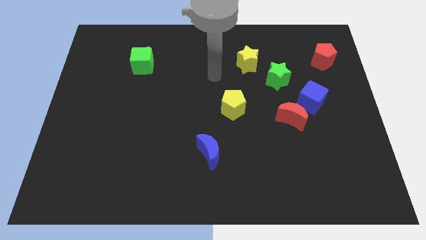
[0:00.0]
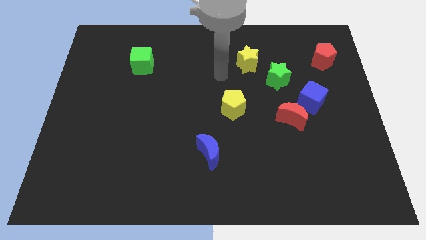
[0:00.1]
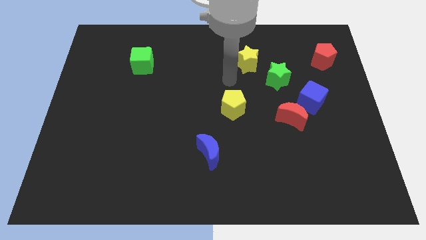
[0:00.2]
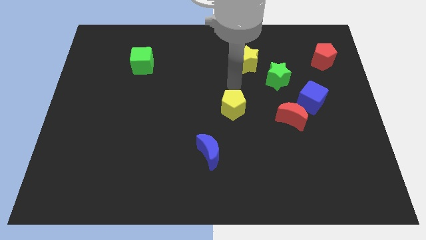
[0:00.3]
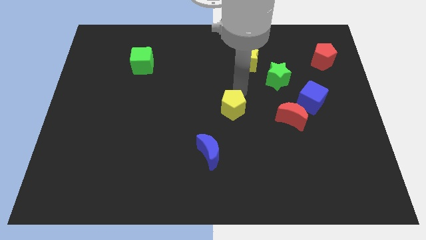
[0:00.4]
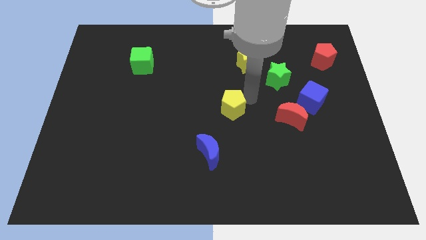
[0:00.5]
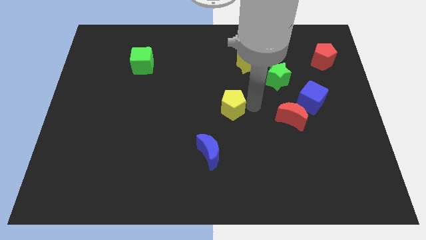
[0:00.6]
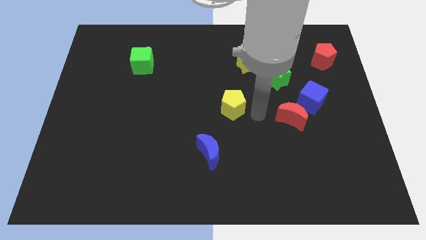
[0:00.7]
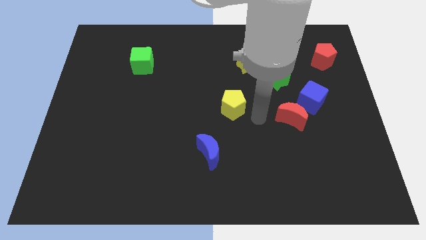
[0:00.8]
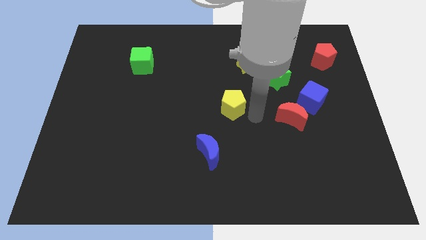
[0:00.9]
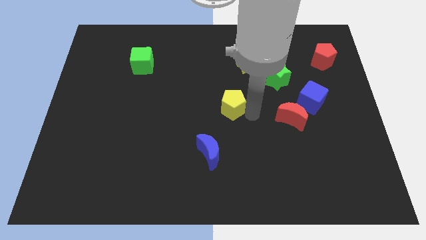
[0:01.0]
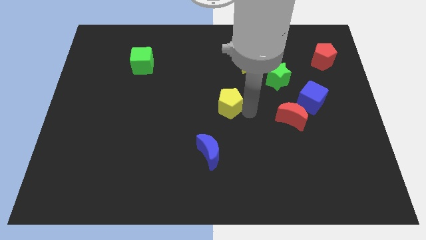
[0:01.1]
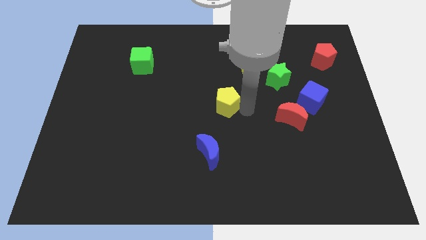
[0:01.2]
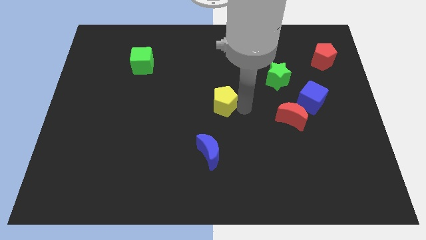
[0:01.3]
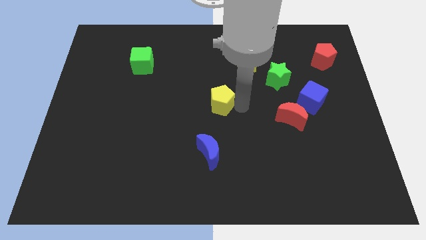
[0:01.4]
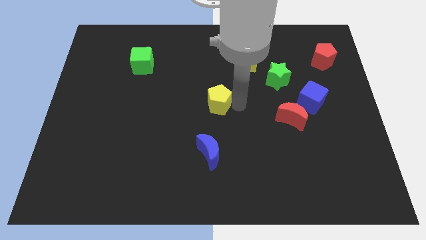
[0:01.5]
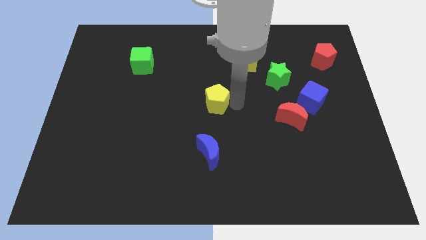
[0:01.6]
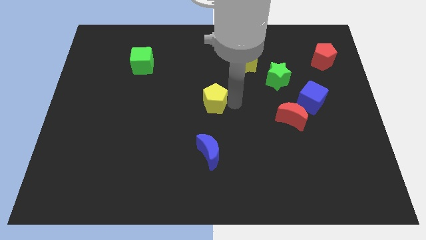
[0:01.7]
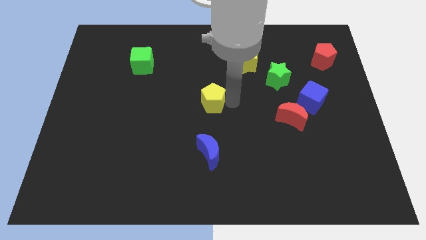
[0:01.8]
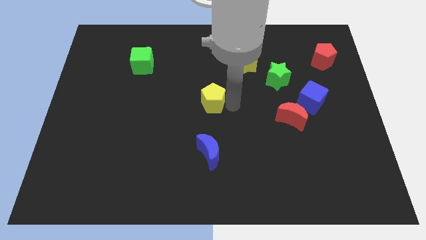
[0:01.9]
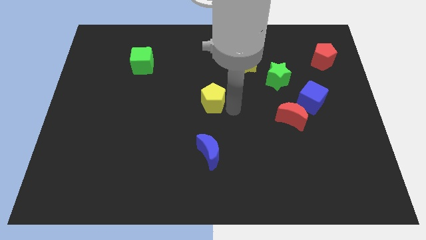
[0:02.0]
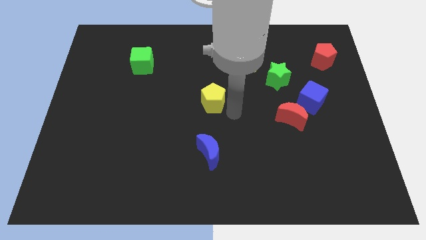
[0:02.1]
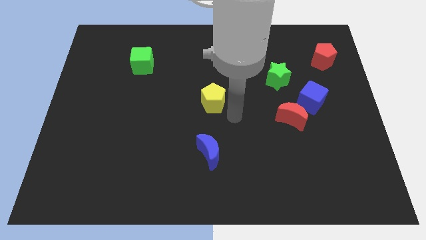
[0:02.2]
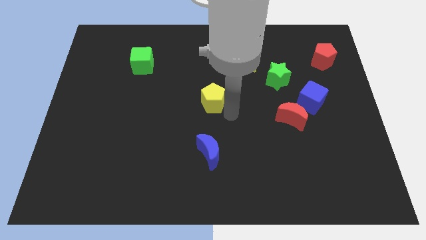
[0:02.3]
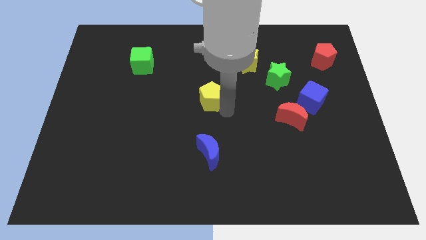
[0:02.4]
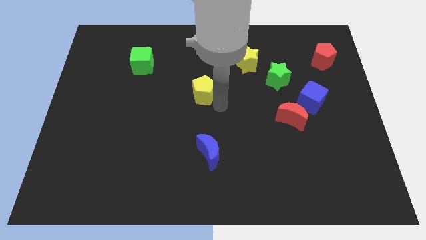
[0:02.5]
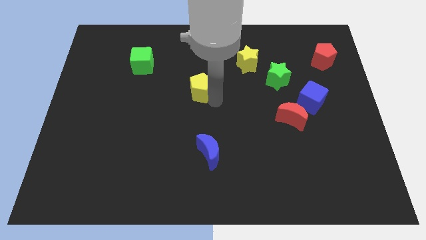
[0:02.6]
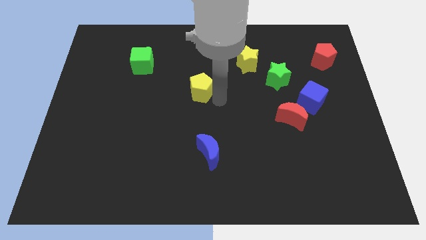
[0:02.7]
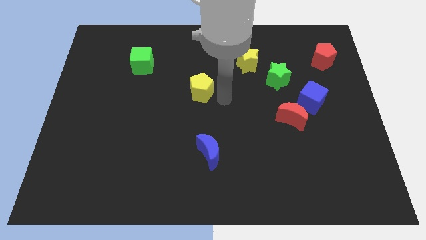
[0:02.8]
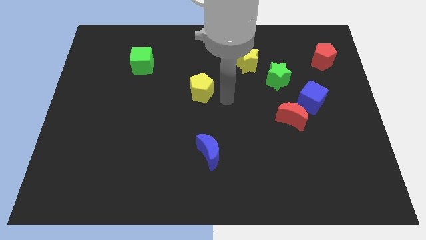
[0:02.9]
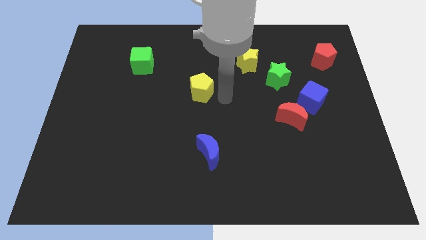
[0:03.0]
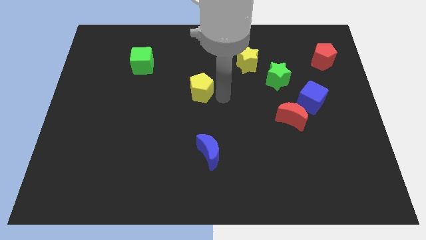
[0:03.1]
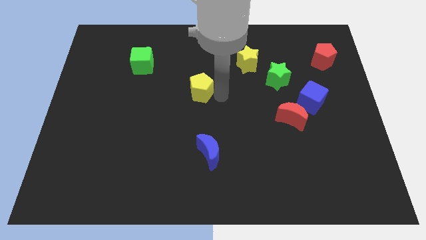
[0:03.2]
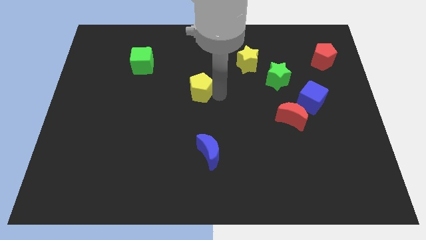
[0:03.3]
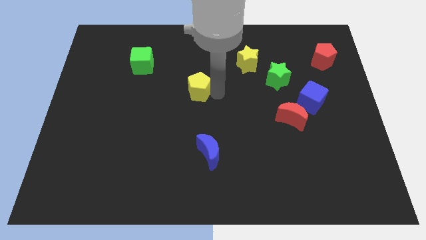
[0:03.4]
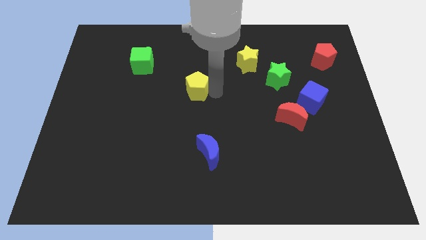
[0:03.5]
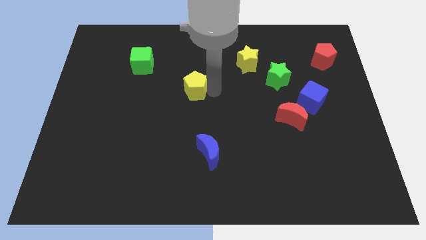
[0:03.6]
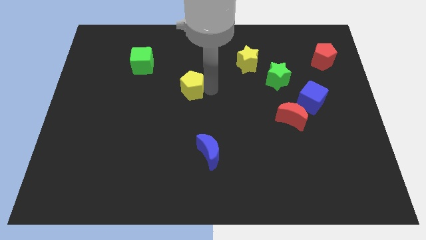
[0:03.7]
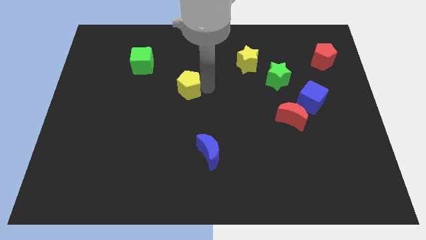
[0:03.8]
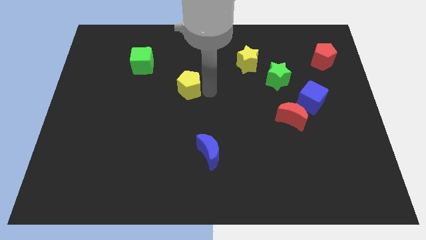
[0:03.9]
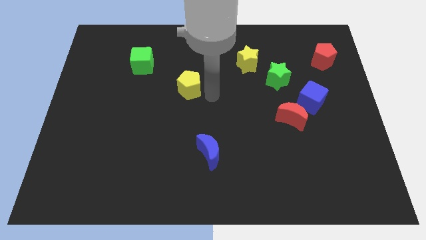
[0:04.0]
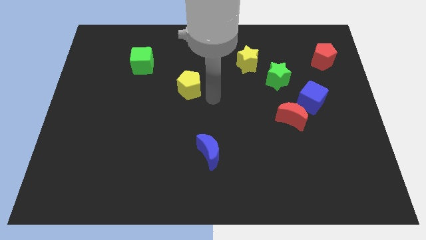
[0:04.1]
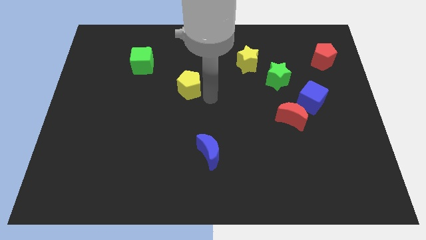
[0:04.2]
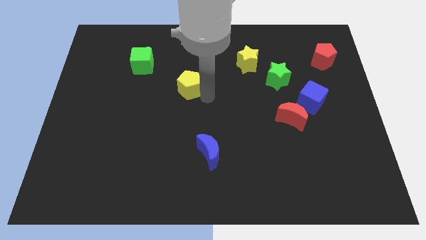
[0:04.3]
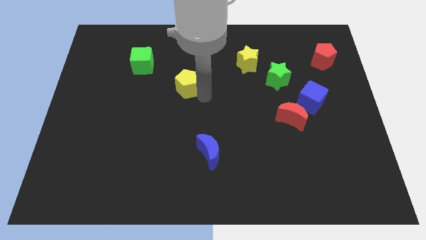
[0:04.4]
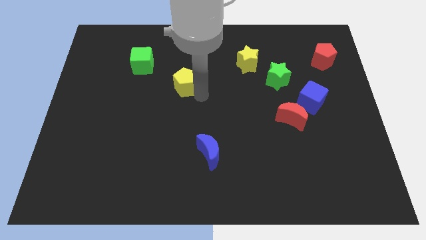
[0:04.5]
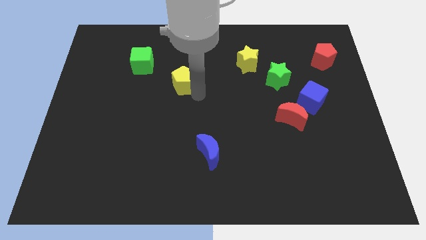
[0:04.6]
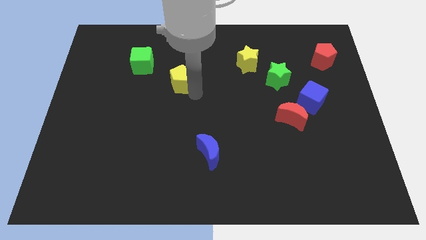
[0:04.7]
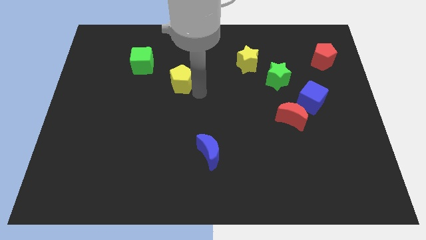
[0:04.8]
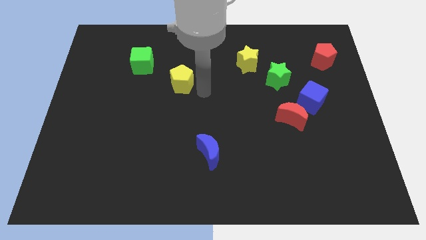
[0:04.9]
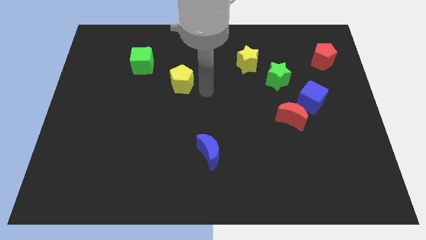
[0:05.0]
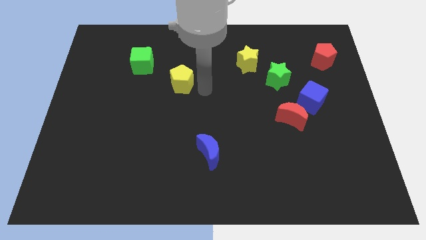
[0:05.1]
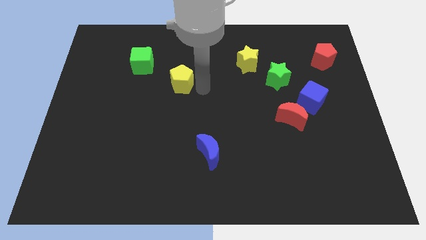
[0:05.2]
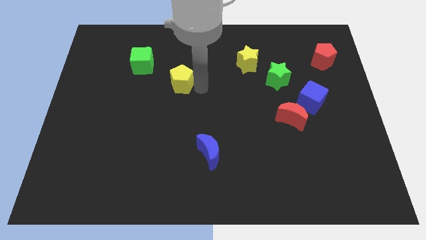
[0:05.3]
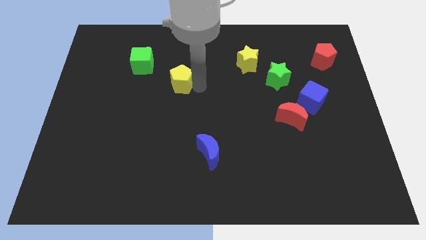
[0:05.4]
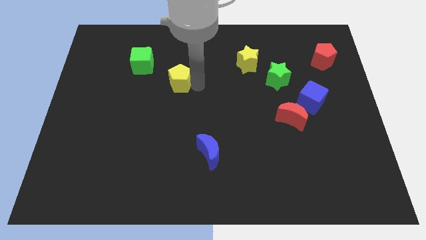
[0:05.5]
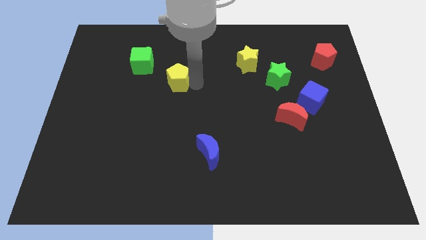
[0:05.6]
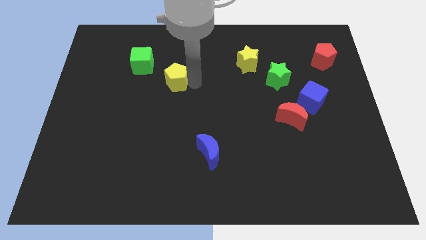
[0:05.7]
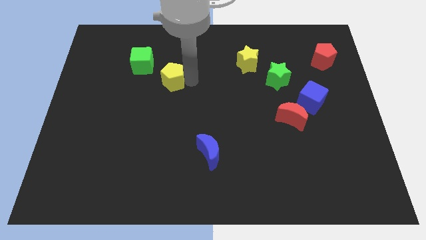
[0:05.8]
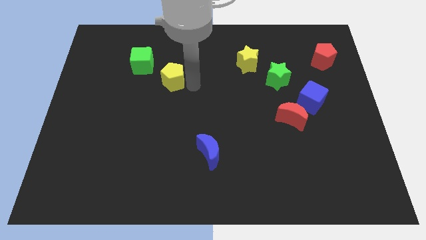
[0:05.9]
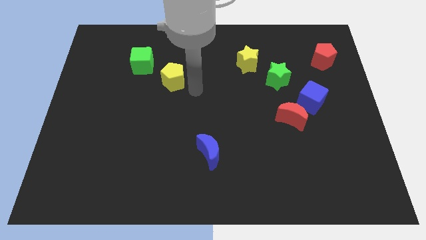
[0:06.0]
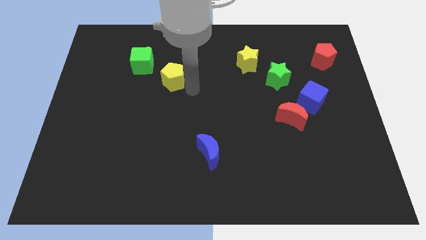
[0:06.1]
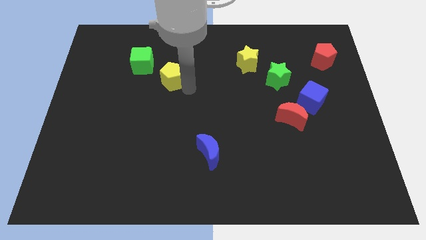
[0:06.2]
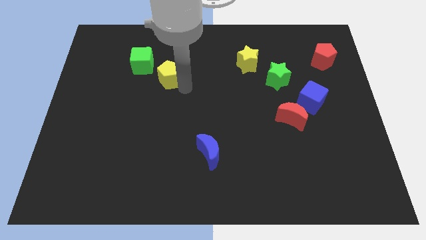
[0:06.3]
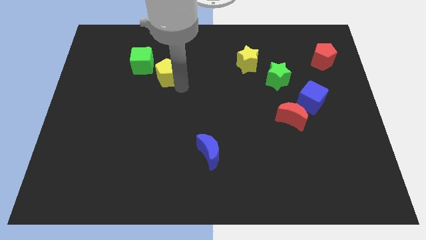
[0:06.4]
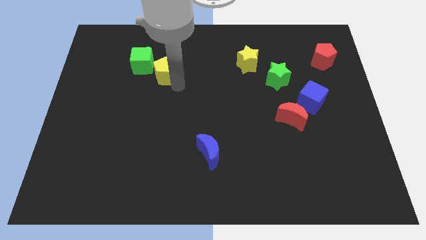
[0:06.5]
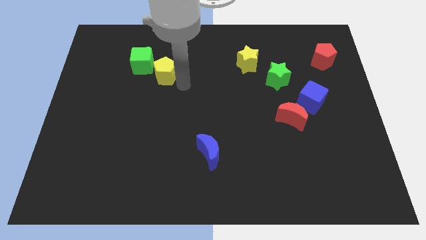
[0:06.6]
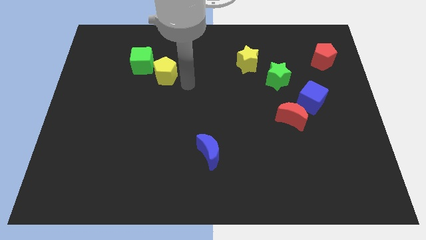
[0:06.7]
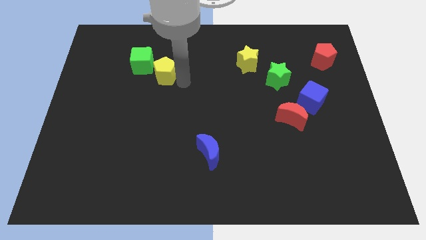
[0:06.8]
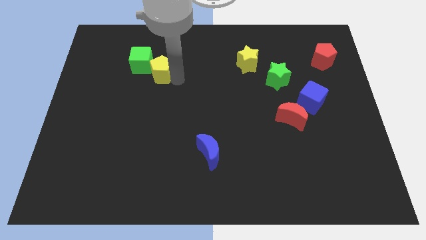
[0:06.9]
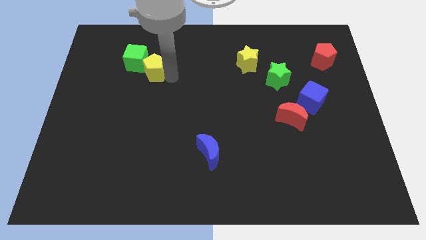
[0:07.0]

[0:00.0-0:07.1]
move the yellow pentagon next to the green cube

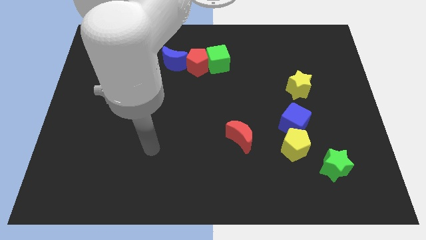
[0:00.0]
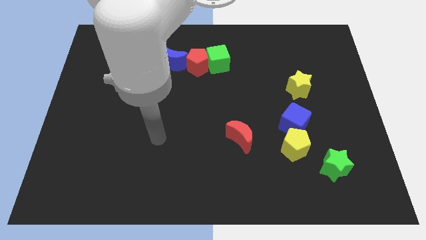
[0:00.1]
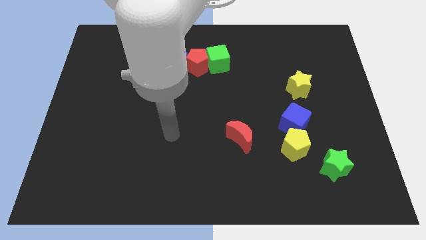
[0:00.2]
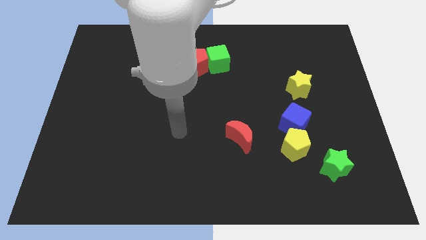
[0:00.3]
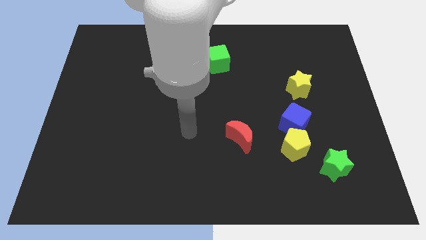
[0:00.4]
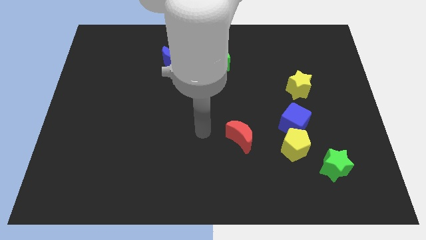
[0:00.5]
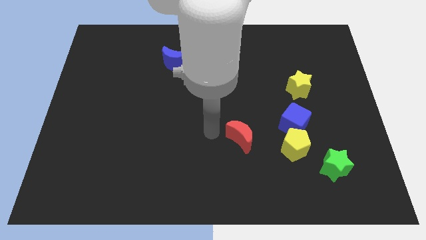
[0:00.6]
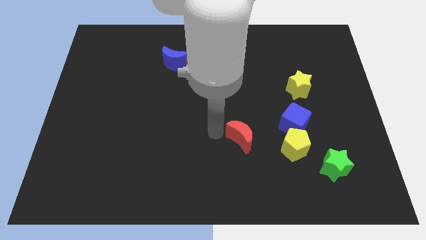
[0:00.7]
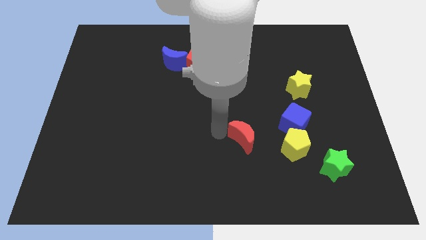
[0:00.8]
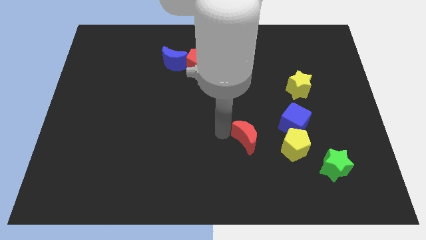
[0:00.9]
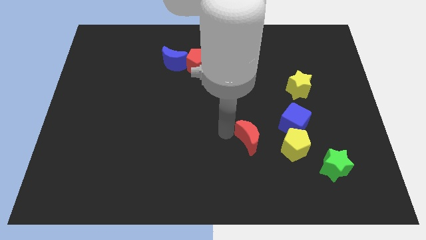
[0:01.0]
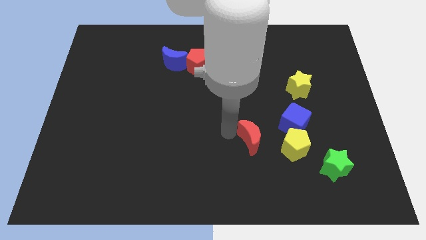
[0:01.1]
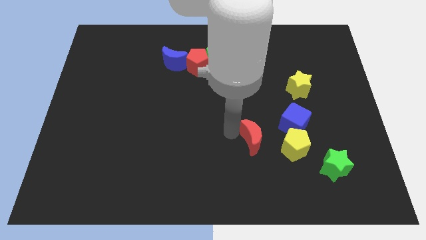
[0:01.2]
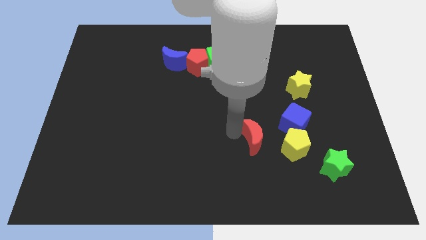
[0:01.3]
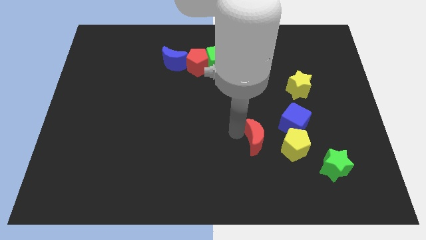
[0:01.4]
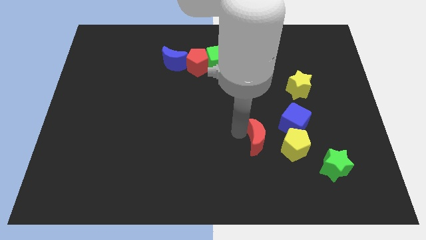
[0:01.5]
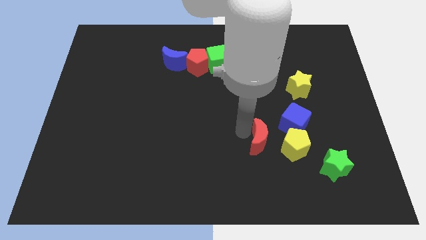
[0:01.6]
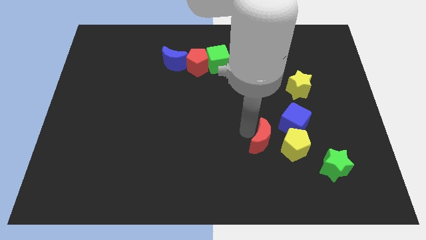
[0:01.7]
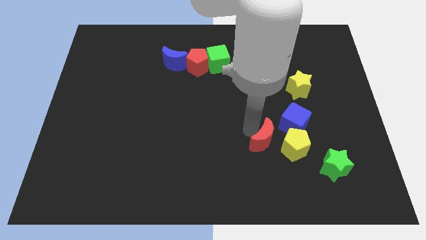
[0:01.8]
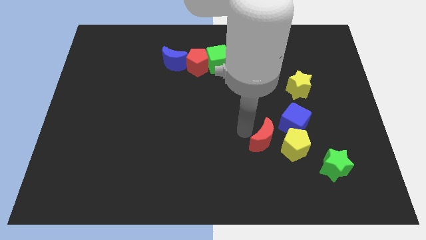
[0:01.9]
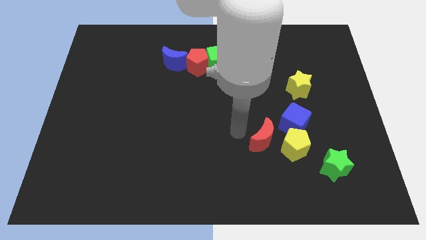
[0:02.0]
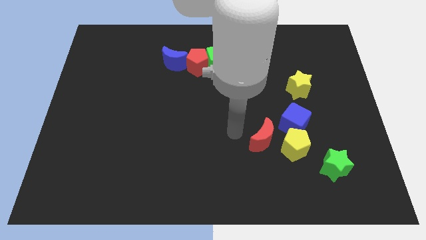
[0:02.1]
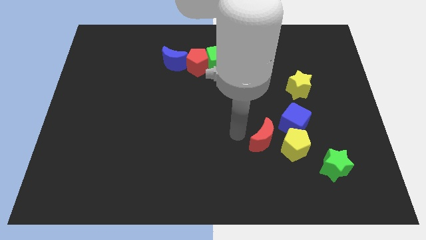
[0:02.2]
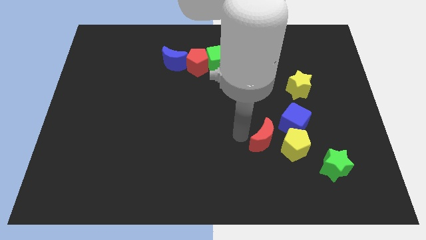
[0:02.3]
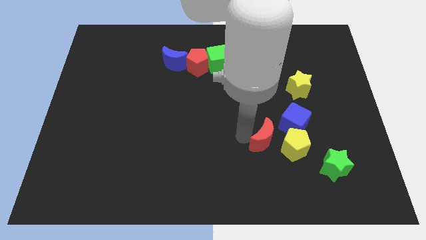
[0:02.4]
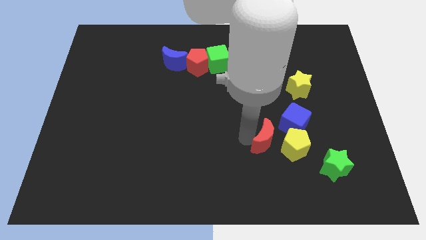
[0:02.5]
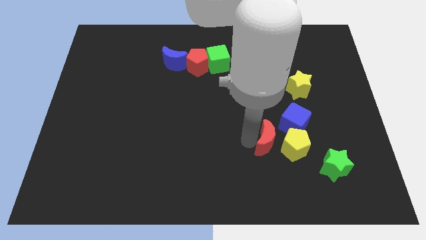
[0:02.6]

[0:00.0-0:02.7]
put the red moon towards the yellow pentagon
